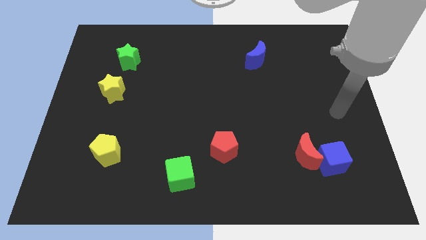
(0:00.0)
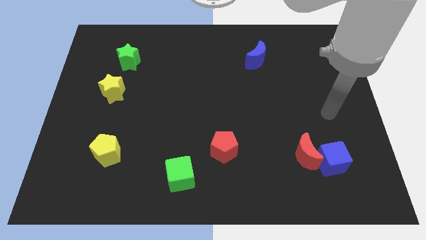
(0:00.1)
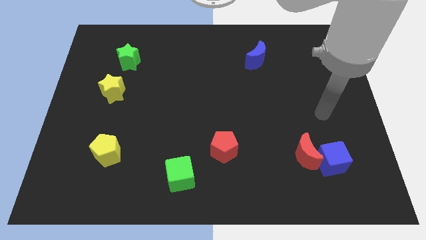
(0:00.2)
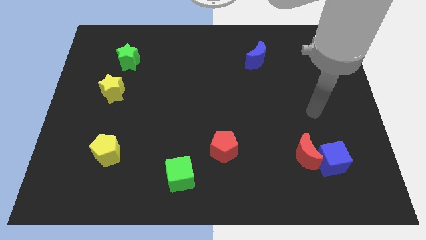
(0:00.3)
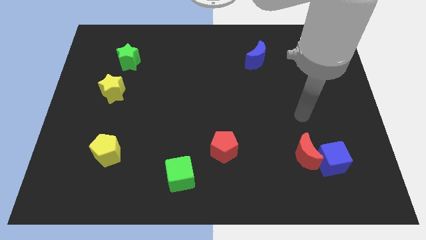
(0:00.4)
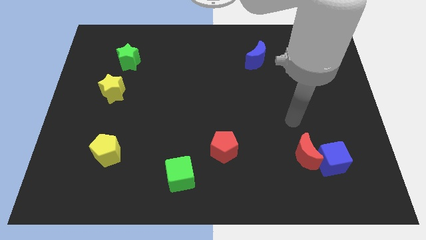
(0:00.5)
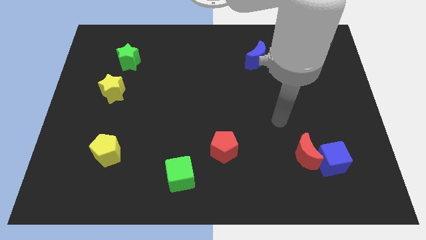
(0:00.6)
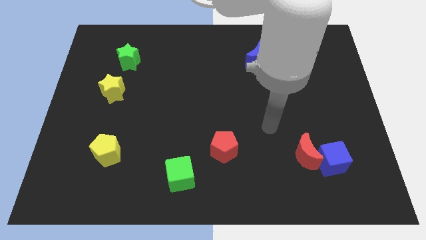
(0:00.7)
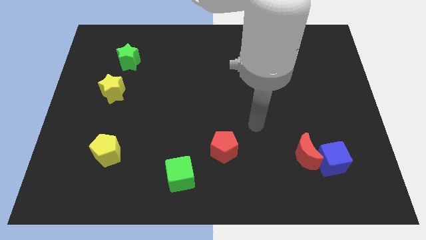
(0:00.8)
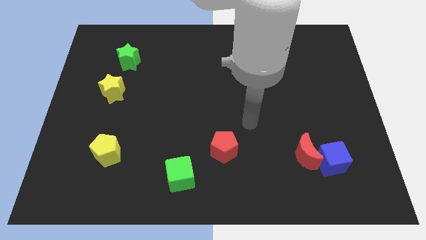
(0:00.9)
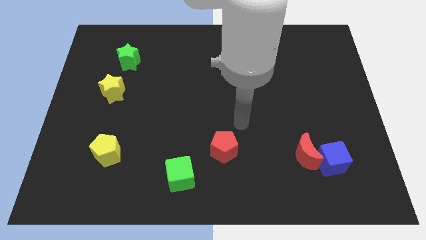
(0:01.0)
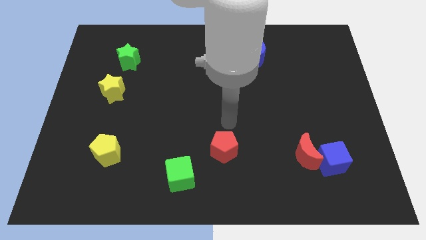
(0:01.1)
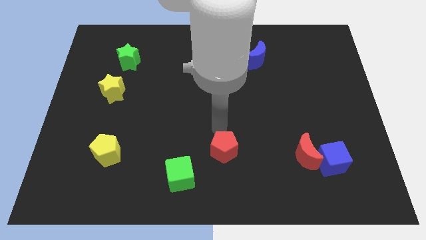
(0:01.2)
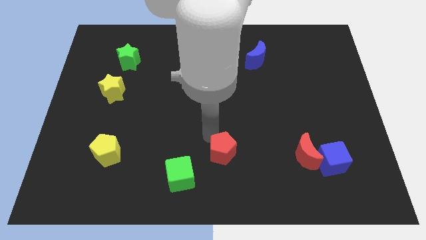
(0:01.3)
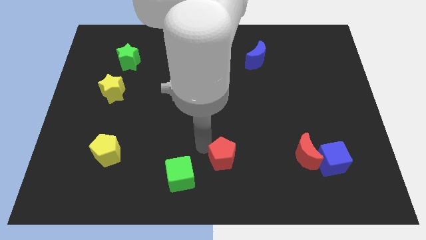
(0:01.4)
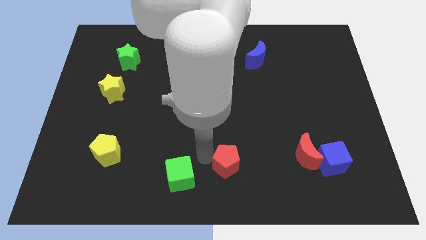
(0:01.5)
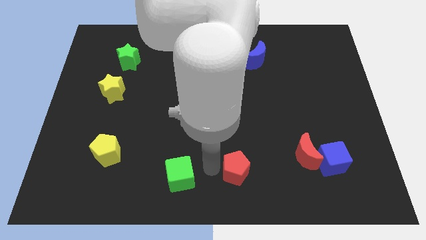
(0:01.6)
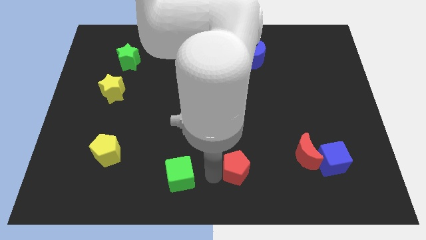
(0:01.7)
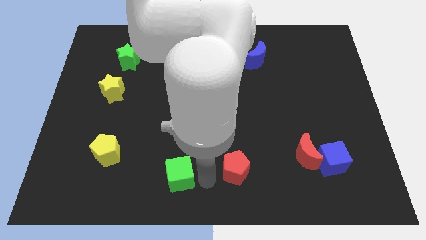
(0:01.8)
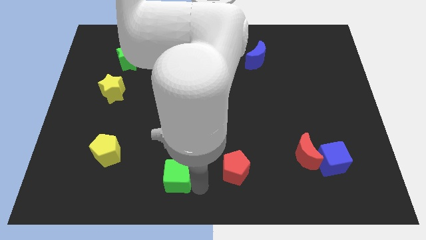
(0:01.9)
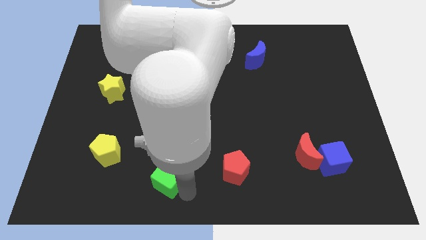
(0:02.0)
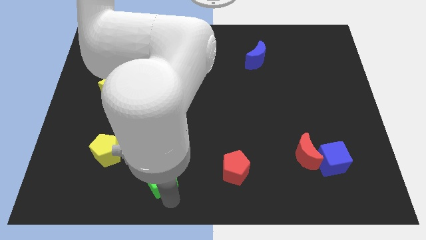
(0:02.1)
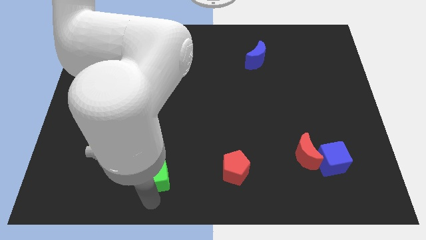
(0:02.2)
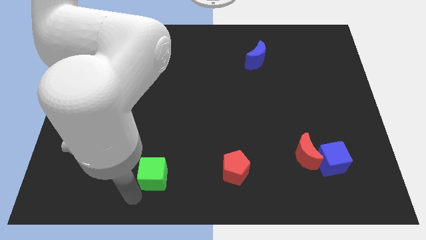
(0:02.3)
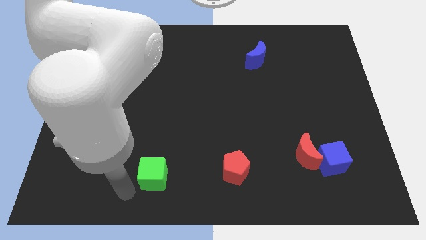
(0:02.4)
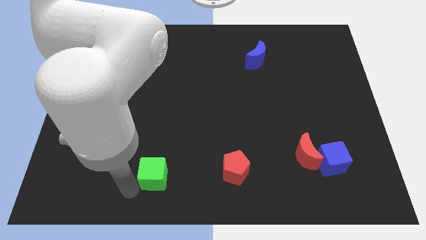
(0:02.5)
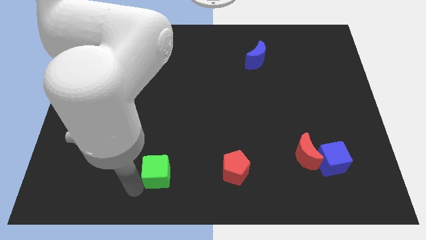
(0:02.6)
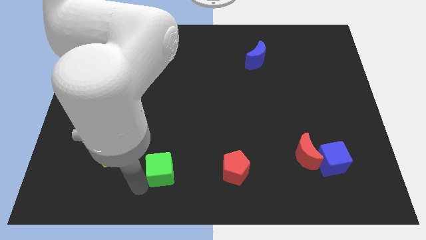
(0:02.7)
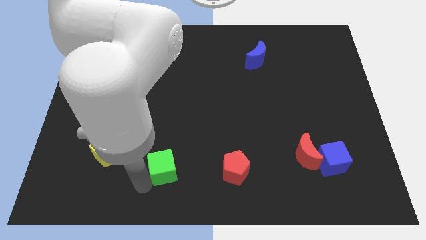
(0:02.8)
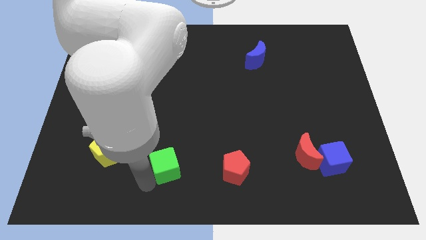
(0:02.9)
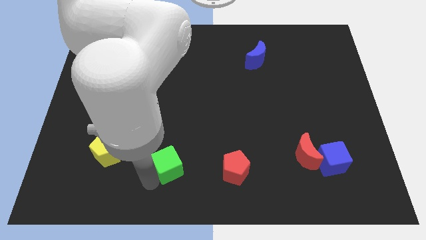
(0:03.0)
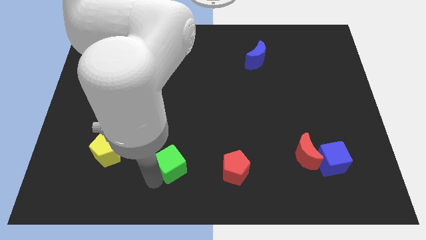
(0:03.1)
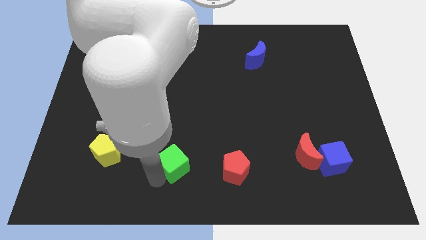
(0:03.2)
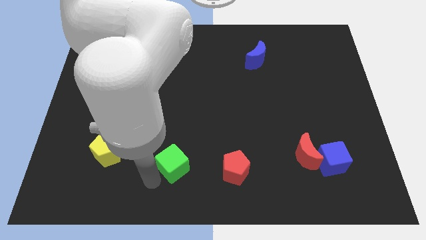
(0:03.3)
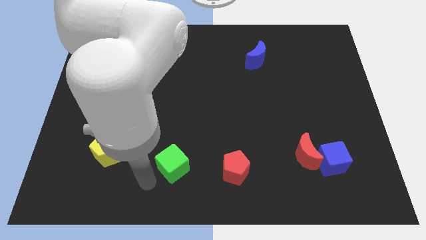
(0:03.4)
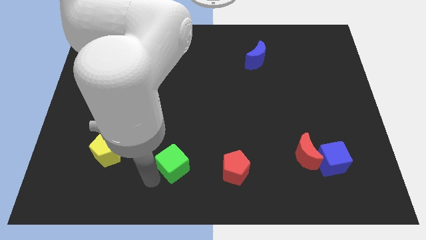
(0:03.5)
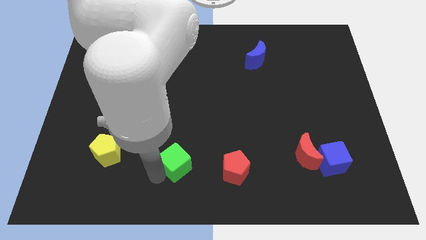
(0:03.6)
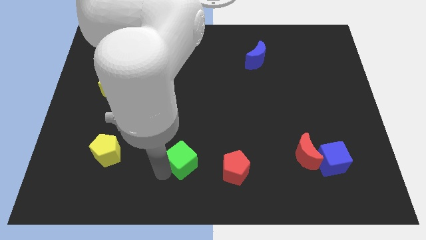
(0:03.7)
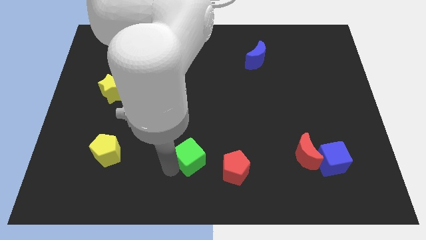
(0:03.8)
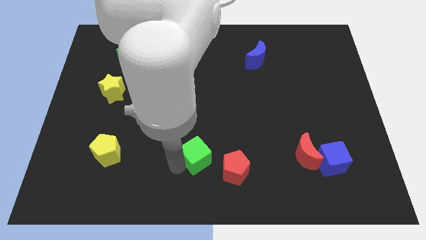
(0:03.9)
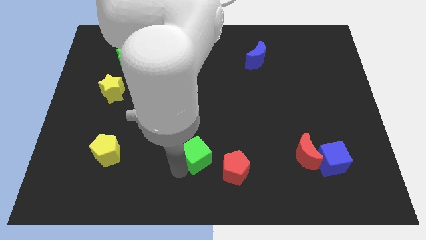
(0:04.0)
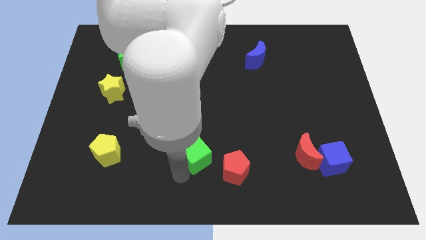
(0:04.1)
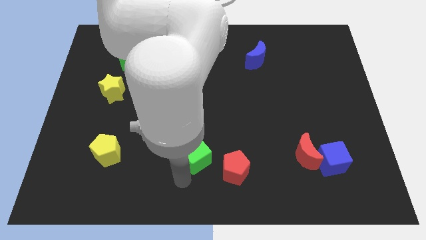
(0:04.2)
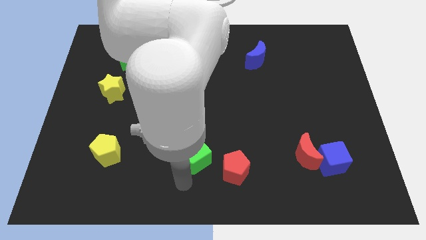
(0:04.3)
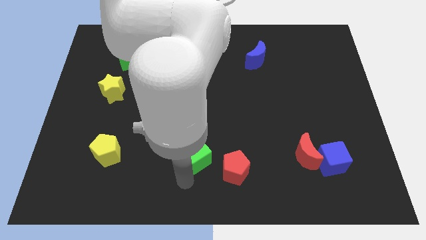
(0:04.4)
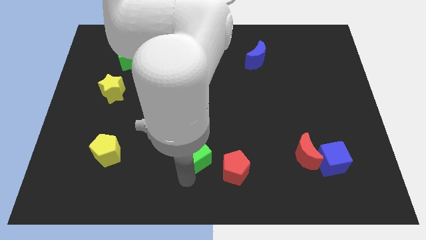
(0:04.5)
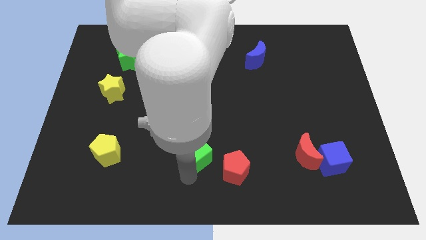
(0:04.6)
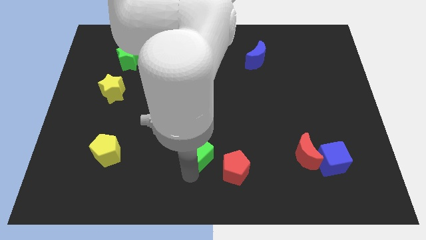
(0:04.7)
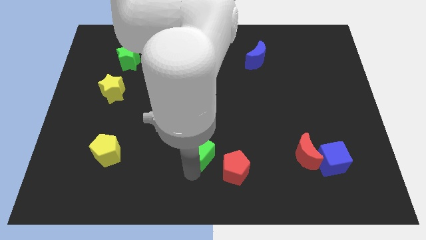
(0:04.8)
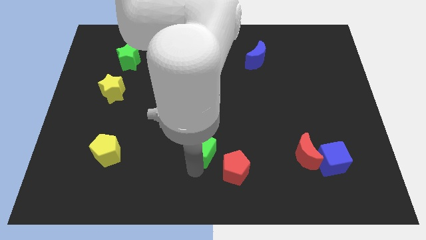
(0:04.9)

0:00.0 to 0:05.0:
slide the green cube a little up and then right

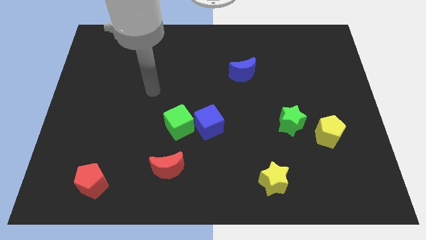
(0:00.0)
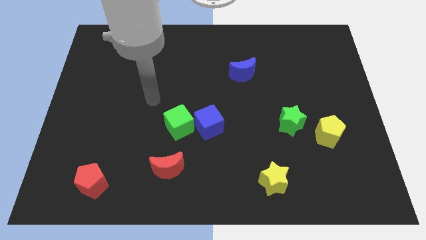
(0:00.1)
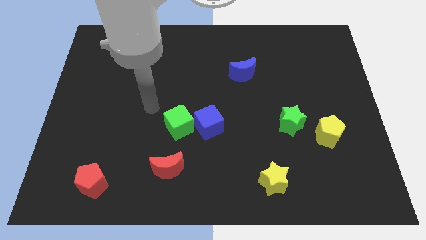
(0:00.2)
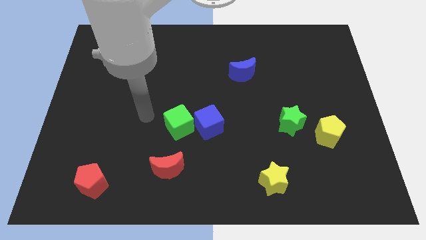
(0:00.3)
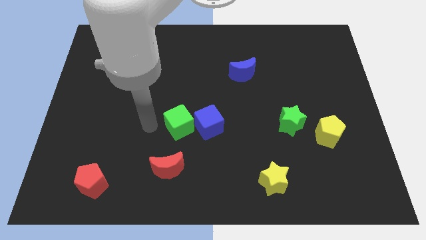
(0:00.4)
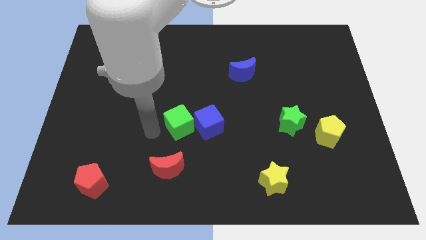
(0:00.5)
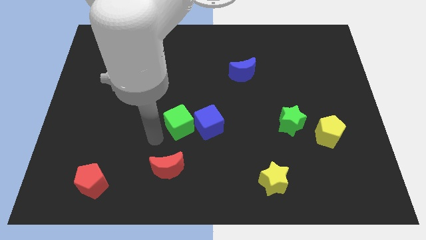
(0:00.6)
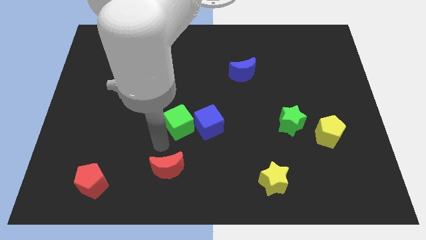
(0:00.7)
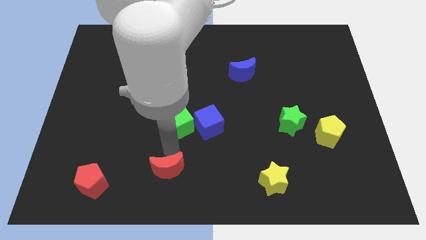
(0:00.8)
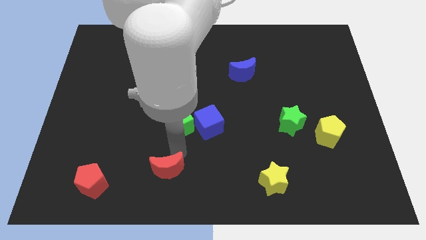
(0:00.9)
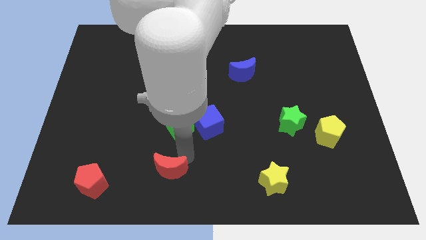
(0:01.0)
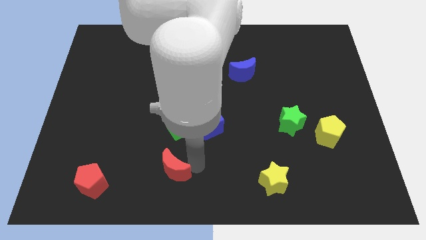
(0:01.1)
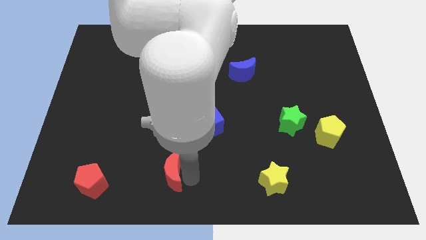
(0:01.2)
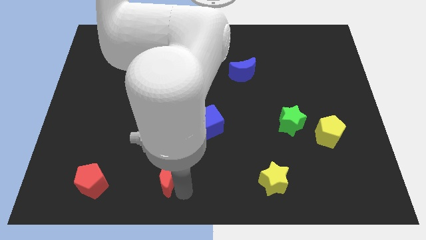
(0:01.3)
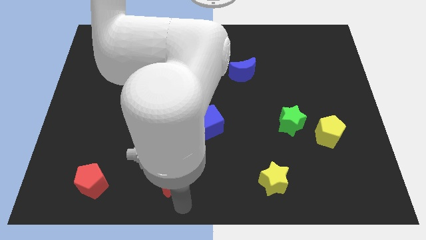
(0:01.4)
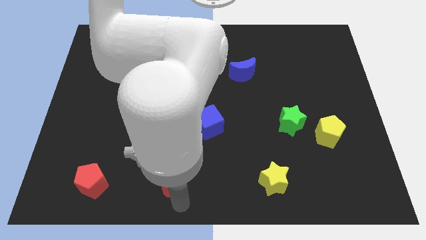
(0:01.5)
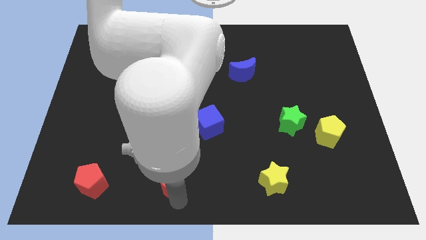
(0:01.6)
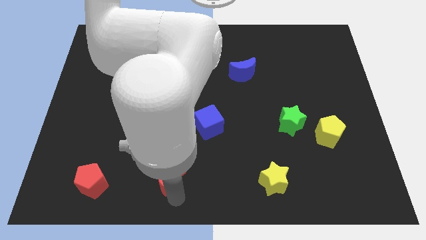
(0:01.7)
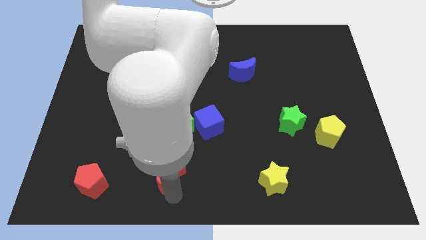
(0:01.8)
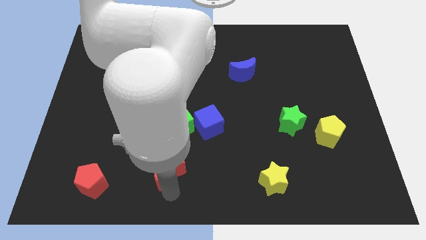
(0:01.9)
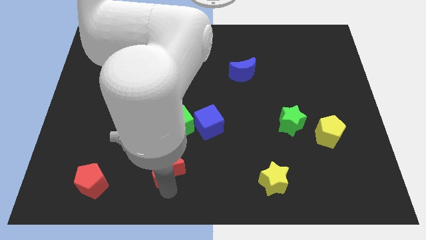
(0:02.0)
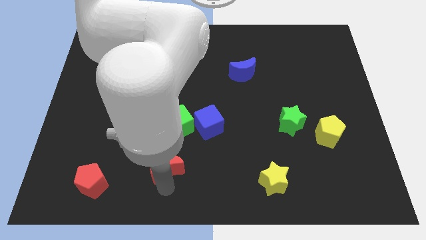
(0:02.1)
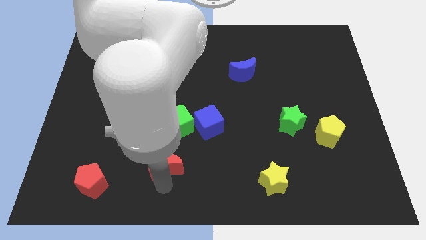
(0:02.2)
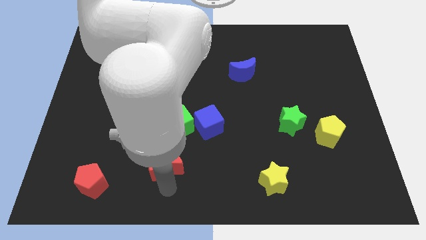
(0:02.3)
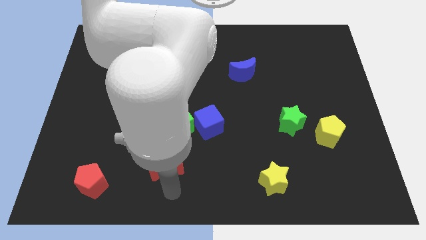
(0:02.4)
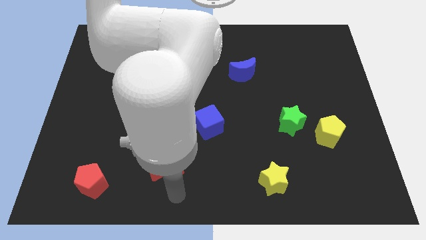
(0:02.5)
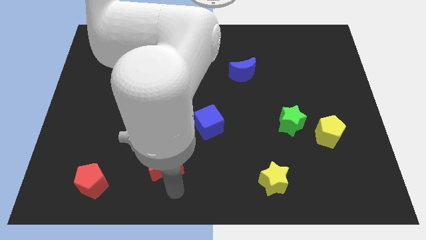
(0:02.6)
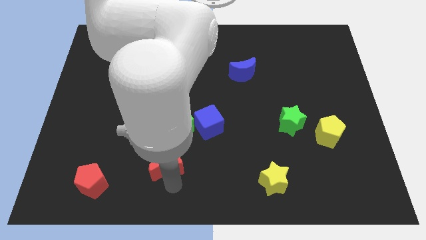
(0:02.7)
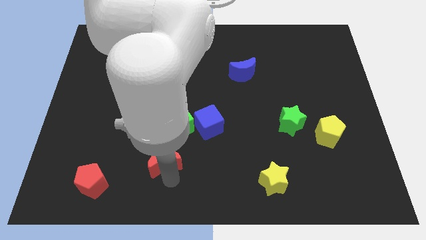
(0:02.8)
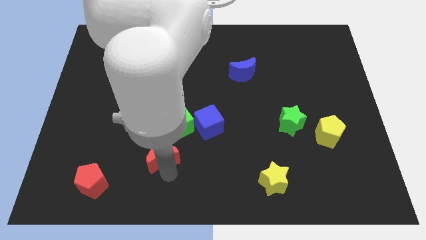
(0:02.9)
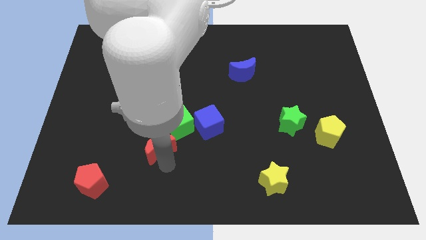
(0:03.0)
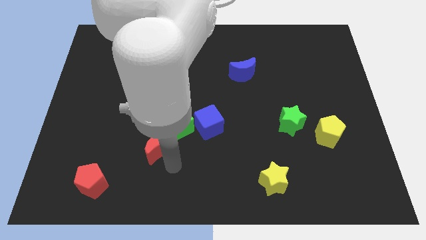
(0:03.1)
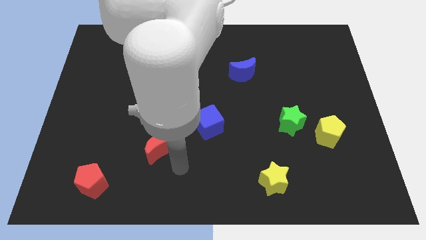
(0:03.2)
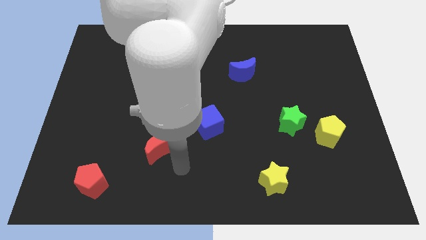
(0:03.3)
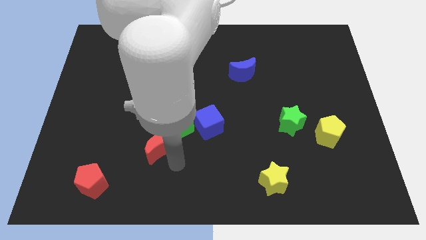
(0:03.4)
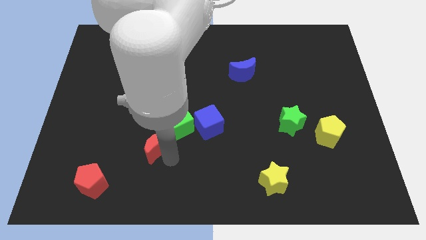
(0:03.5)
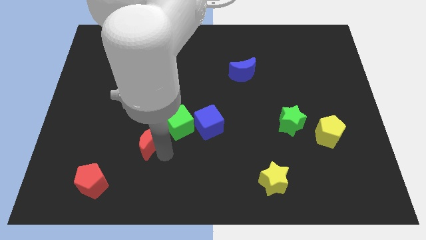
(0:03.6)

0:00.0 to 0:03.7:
slightly push the red moon upwards and left
